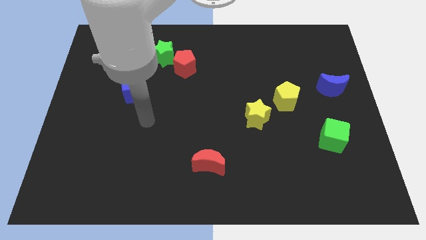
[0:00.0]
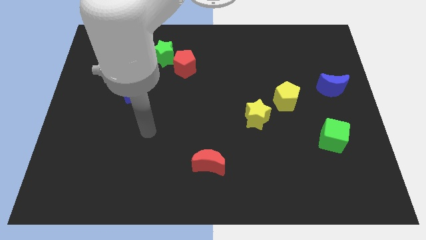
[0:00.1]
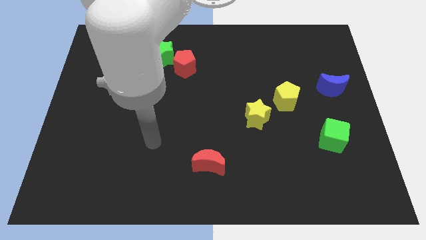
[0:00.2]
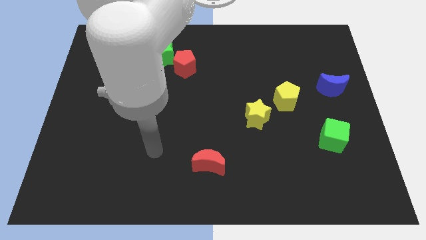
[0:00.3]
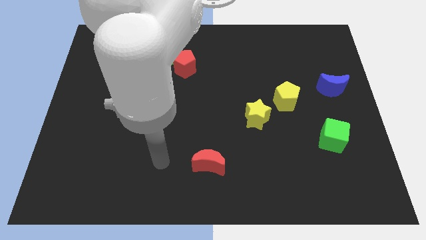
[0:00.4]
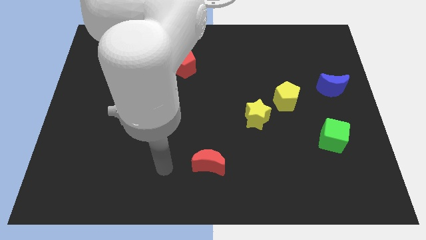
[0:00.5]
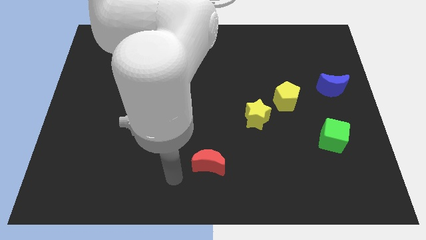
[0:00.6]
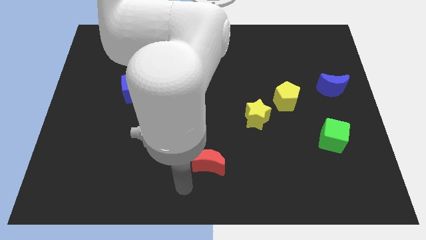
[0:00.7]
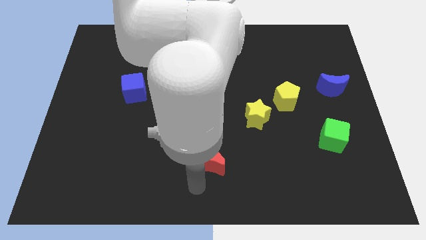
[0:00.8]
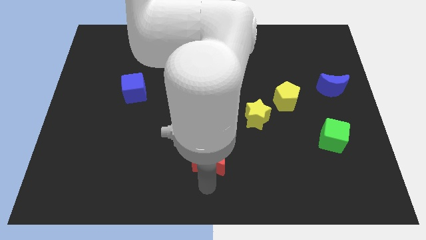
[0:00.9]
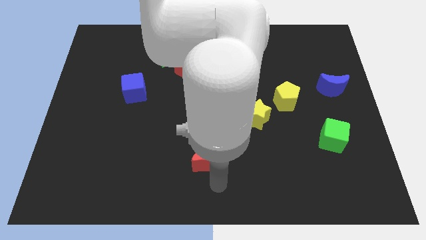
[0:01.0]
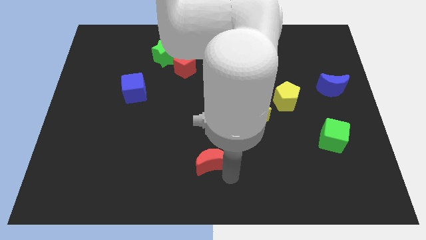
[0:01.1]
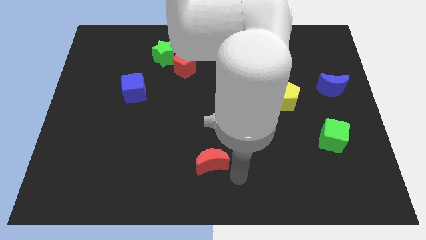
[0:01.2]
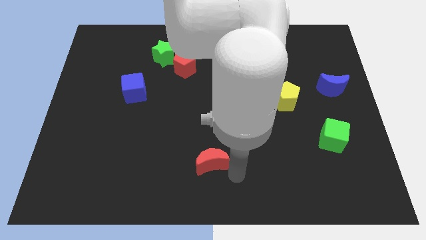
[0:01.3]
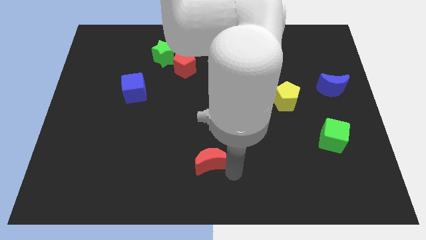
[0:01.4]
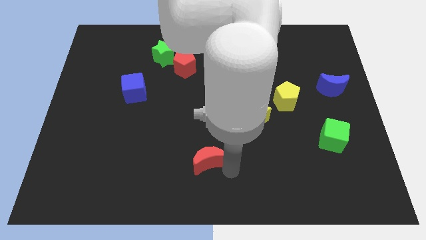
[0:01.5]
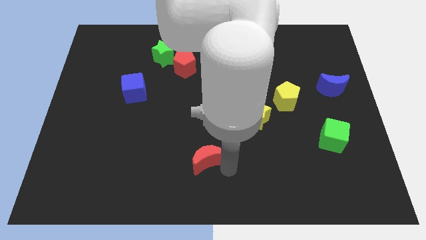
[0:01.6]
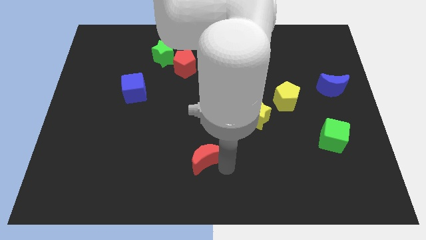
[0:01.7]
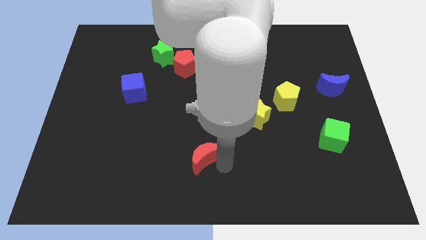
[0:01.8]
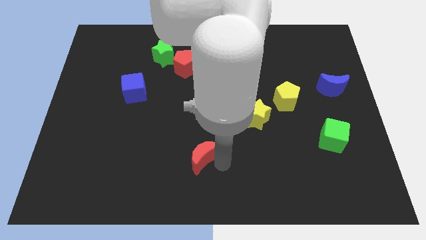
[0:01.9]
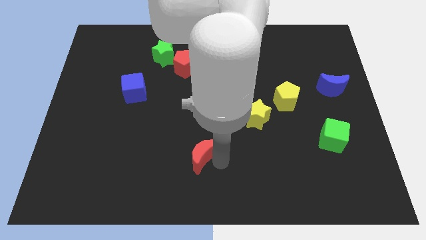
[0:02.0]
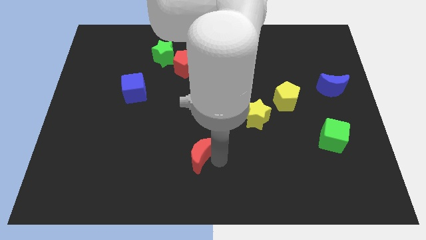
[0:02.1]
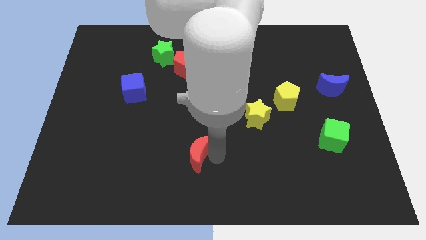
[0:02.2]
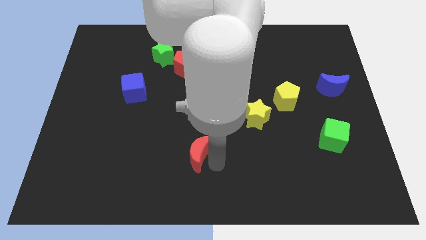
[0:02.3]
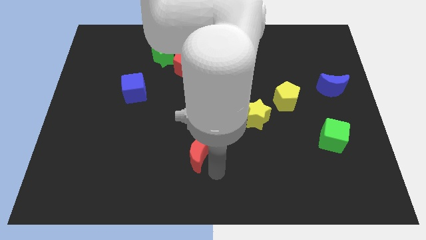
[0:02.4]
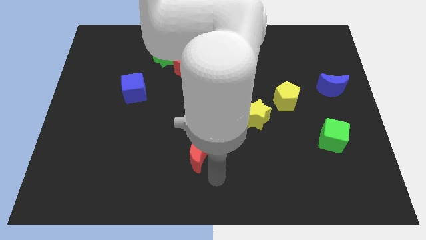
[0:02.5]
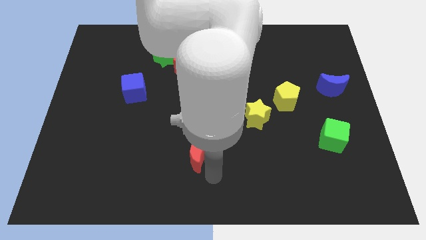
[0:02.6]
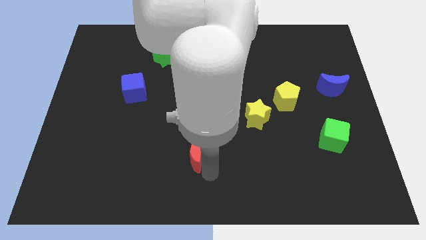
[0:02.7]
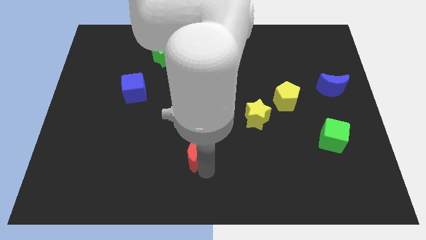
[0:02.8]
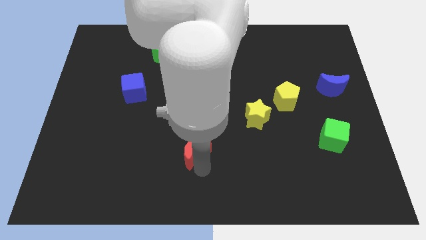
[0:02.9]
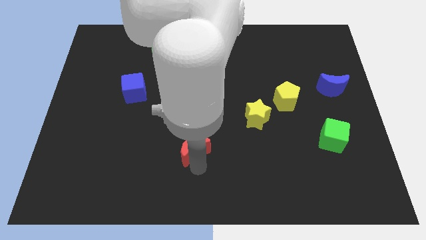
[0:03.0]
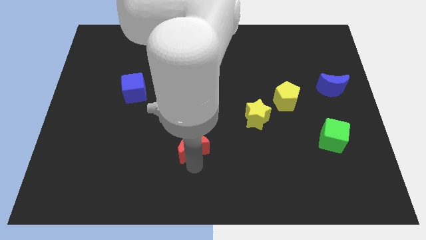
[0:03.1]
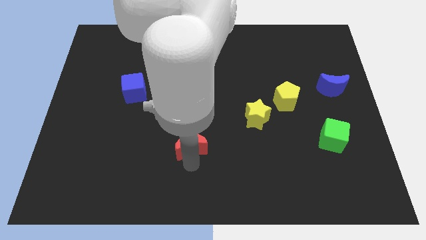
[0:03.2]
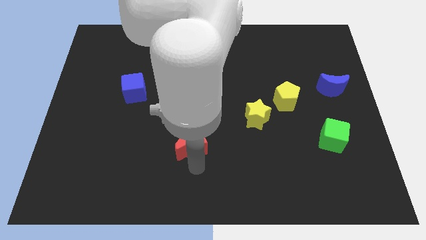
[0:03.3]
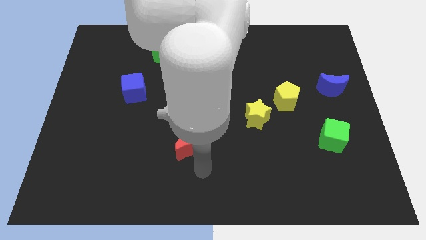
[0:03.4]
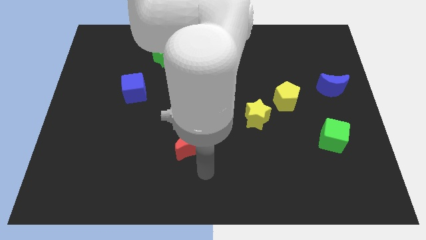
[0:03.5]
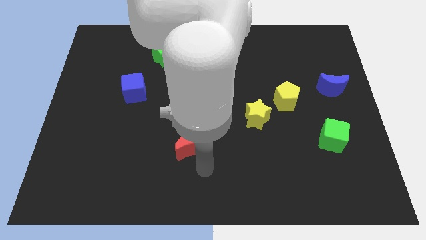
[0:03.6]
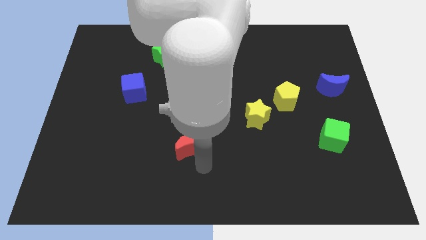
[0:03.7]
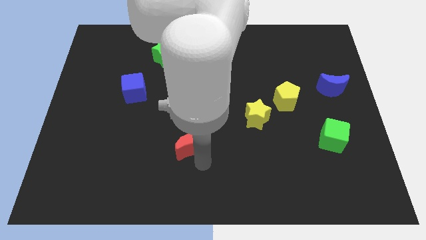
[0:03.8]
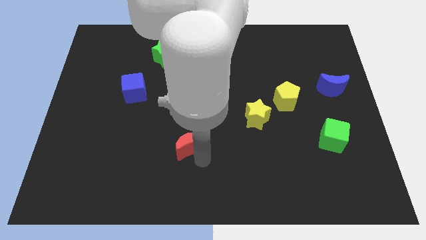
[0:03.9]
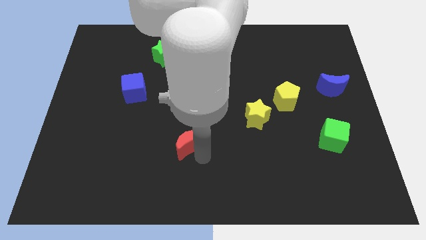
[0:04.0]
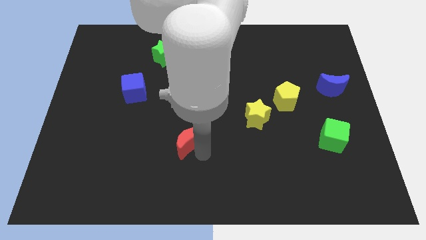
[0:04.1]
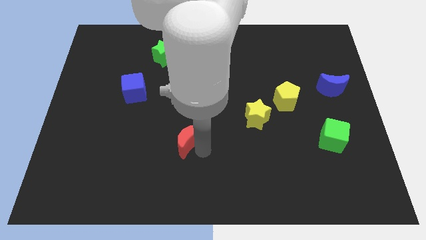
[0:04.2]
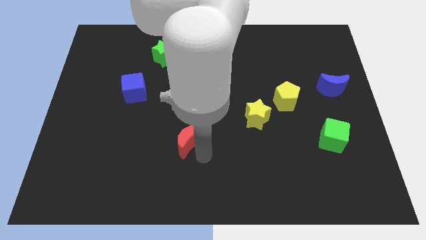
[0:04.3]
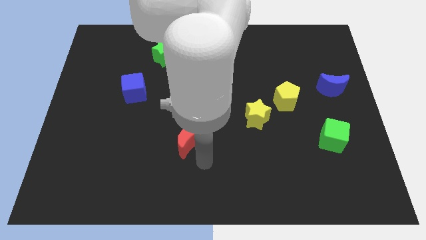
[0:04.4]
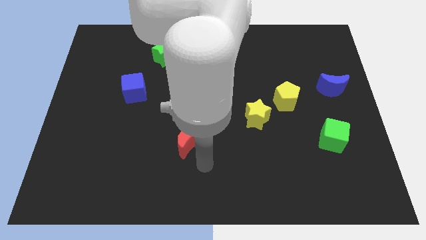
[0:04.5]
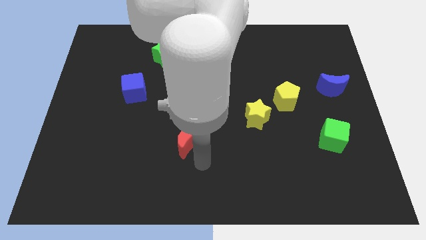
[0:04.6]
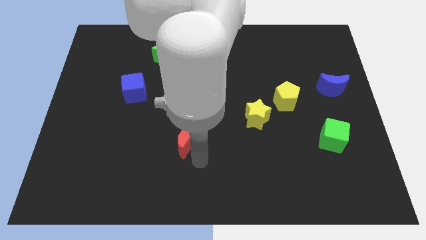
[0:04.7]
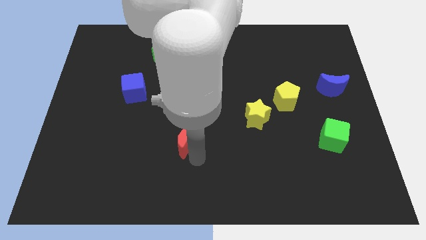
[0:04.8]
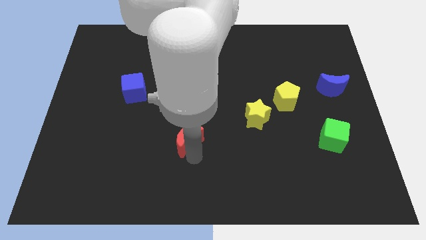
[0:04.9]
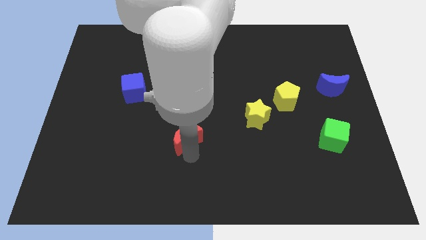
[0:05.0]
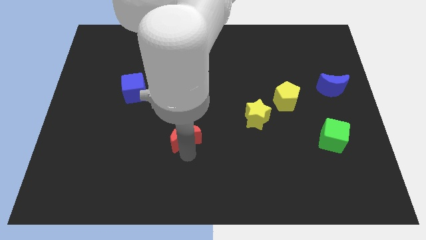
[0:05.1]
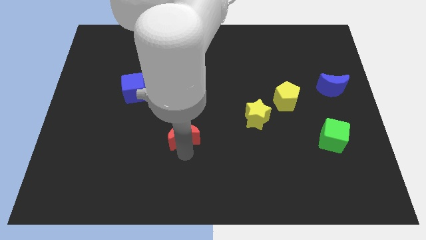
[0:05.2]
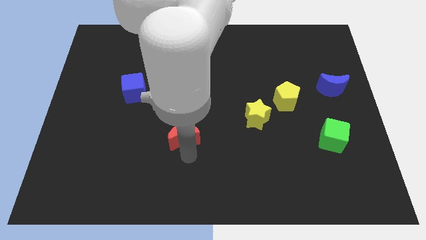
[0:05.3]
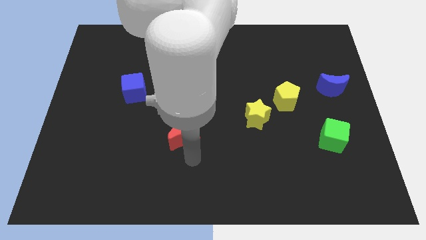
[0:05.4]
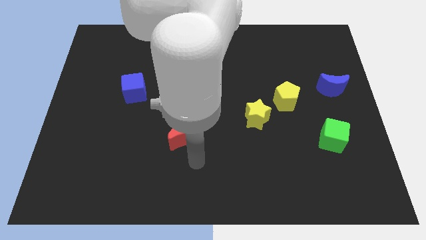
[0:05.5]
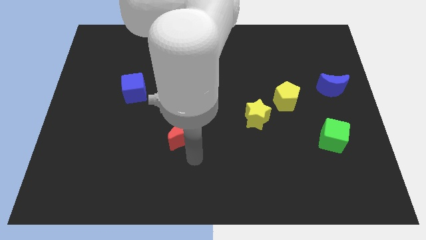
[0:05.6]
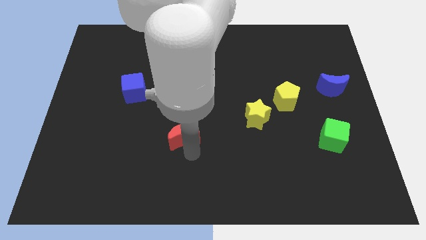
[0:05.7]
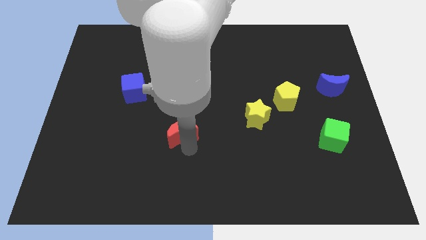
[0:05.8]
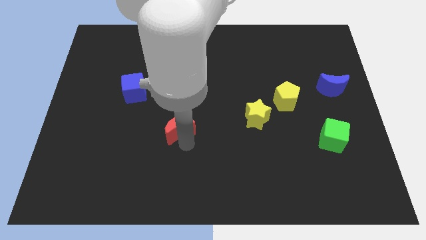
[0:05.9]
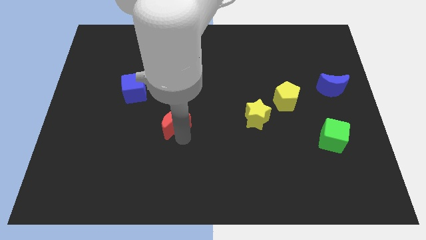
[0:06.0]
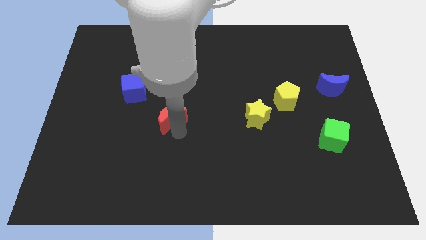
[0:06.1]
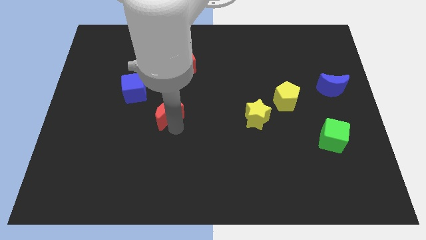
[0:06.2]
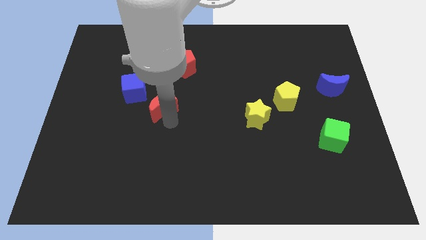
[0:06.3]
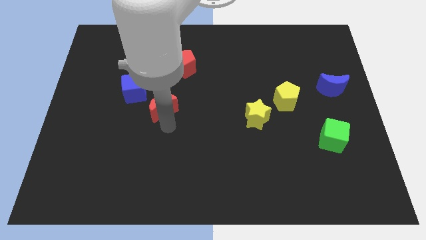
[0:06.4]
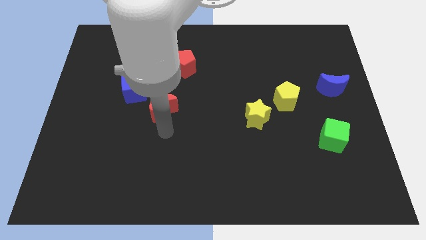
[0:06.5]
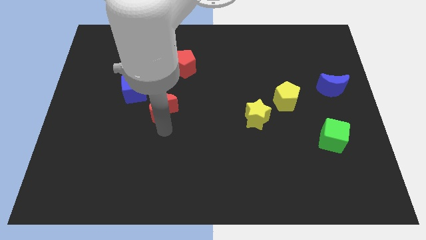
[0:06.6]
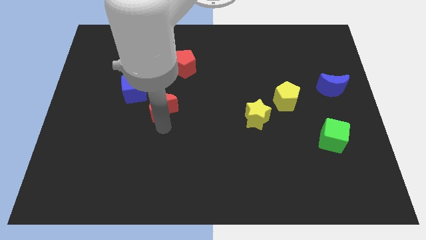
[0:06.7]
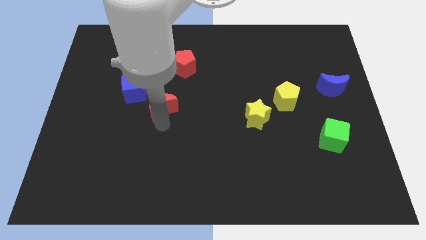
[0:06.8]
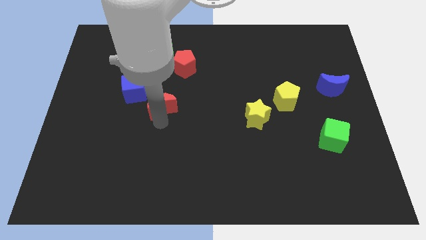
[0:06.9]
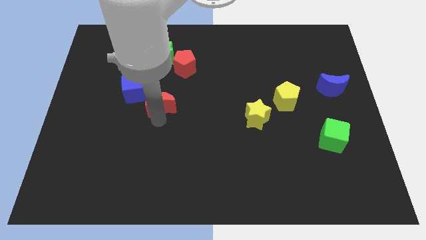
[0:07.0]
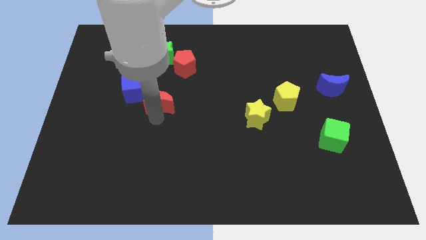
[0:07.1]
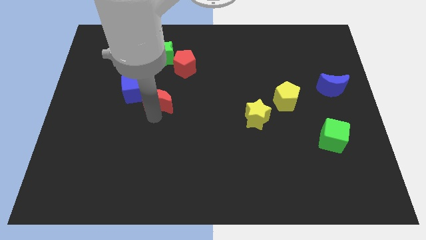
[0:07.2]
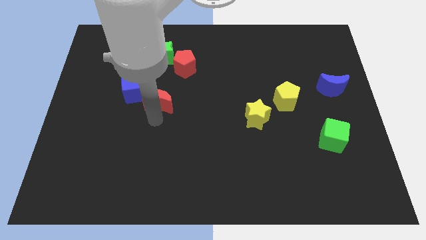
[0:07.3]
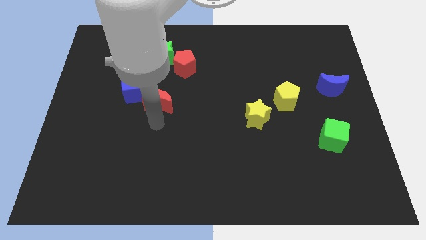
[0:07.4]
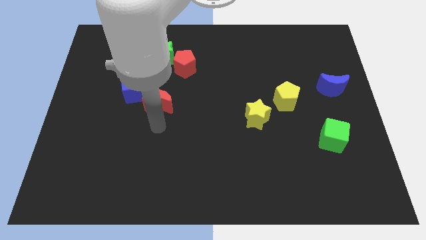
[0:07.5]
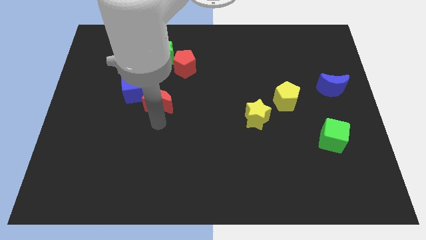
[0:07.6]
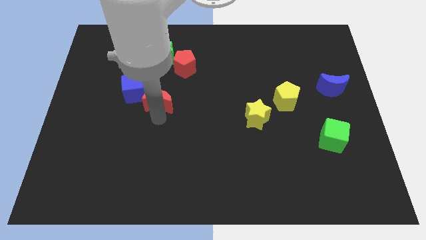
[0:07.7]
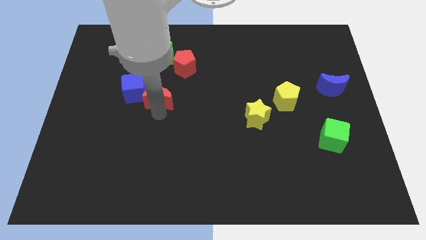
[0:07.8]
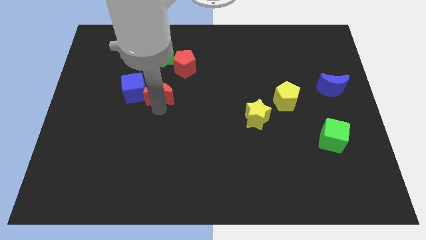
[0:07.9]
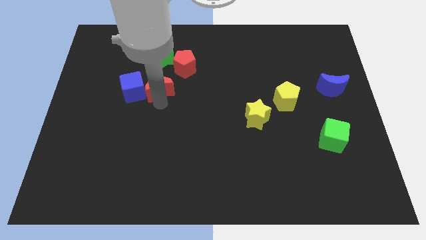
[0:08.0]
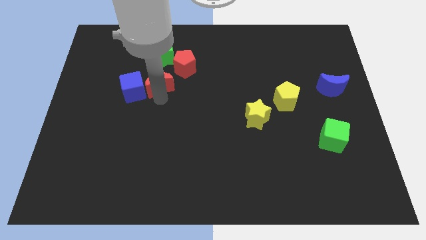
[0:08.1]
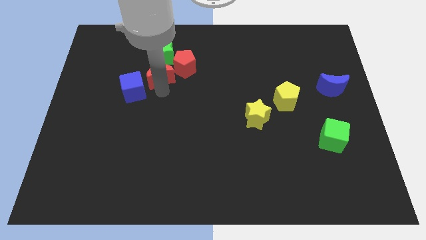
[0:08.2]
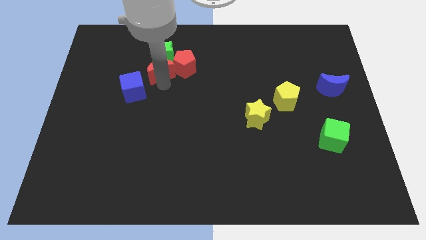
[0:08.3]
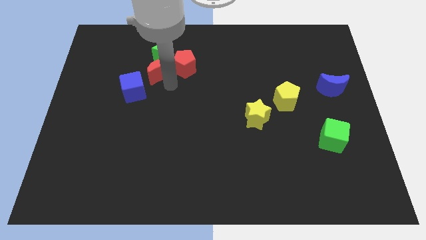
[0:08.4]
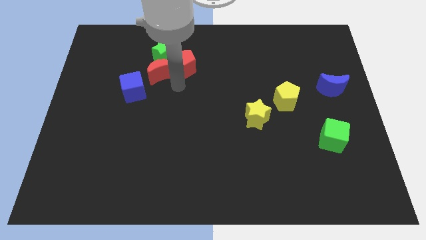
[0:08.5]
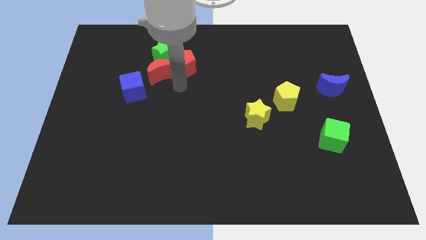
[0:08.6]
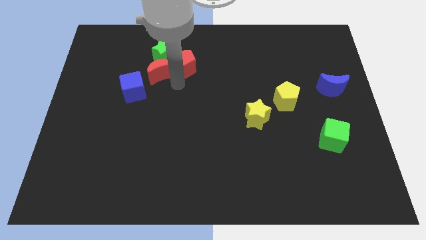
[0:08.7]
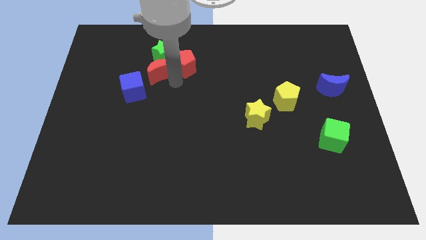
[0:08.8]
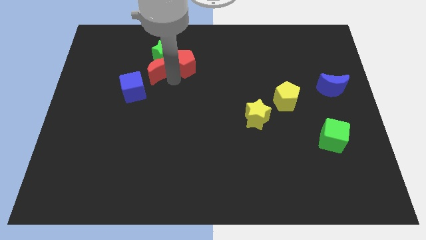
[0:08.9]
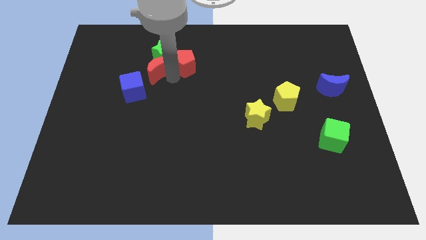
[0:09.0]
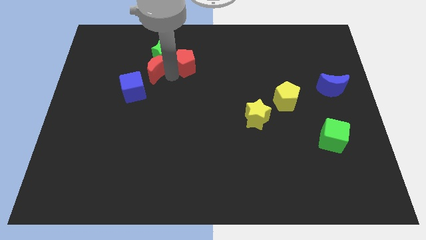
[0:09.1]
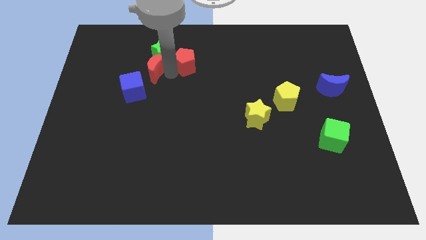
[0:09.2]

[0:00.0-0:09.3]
move the red moon above the blue cube
